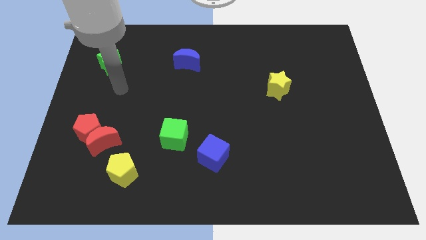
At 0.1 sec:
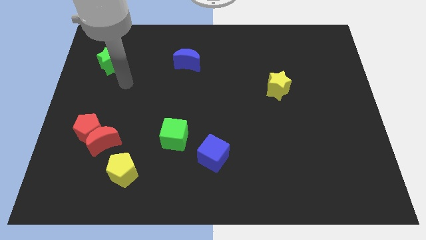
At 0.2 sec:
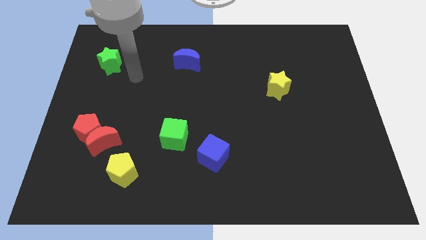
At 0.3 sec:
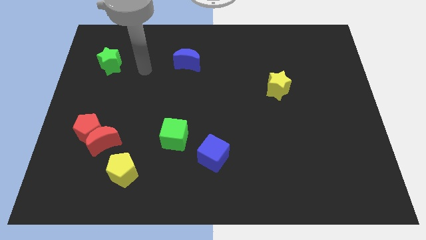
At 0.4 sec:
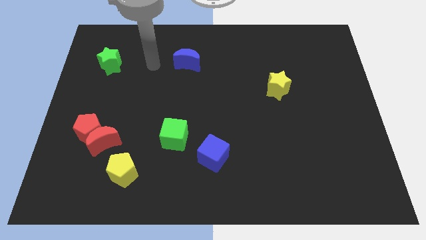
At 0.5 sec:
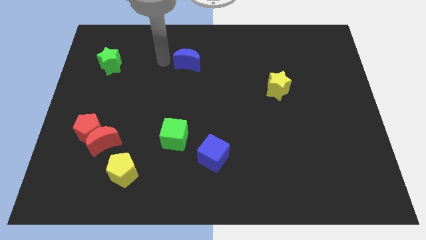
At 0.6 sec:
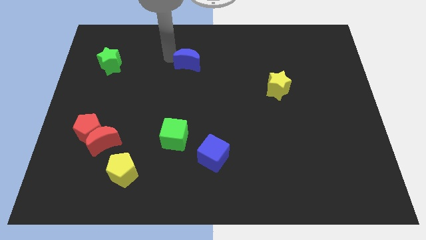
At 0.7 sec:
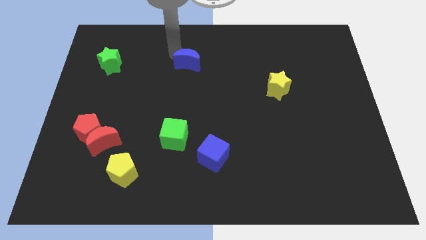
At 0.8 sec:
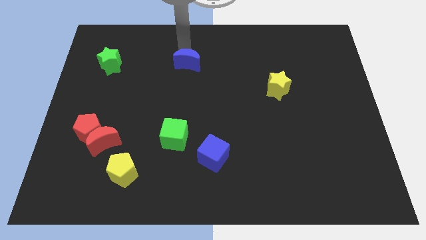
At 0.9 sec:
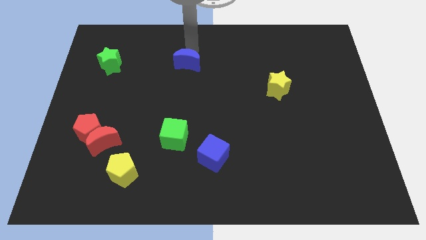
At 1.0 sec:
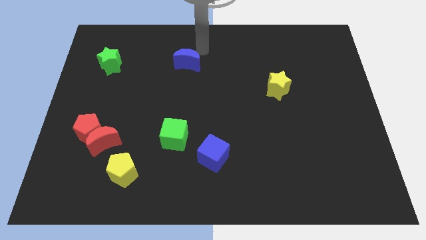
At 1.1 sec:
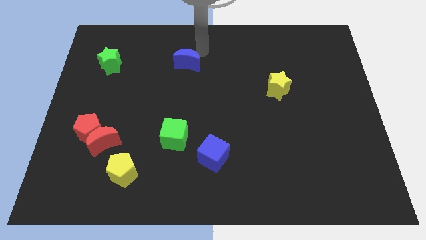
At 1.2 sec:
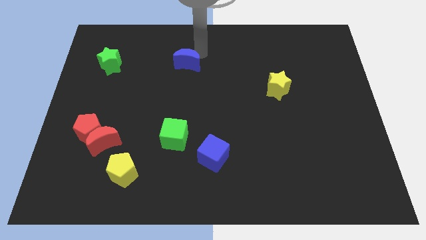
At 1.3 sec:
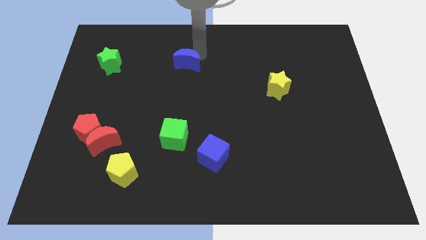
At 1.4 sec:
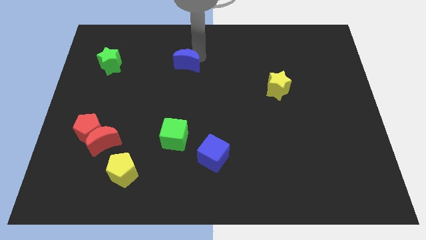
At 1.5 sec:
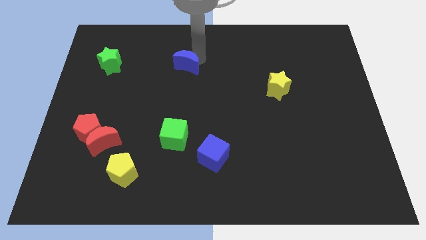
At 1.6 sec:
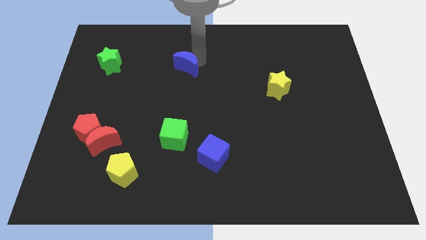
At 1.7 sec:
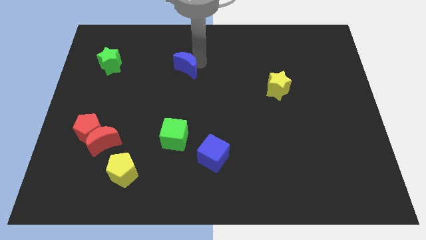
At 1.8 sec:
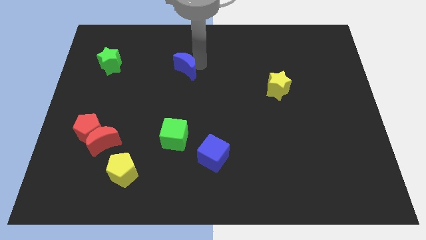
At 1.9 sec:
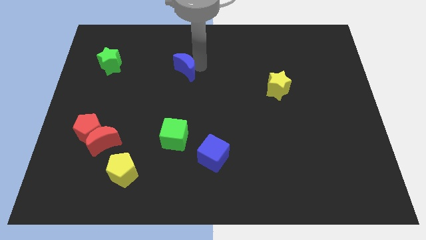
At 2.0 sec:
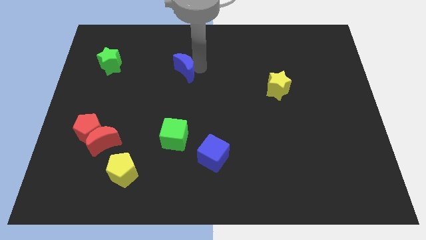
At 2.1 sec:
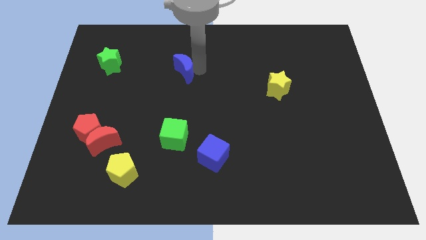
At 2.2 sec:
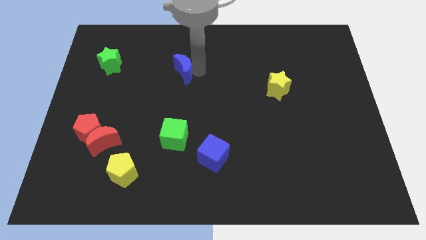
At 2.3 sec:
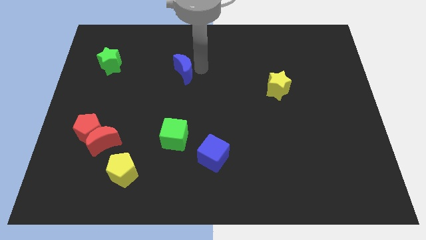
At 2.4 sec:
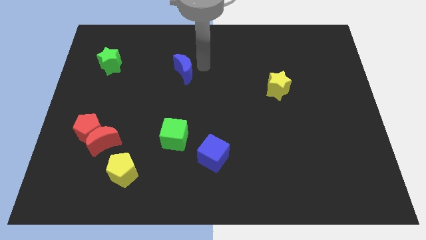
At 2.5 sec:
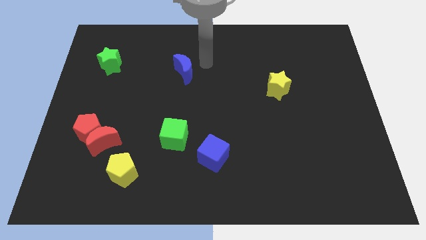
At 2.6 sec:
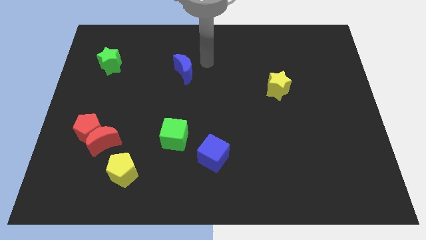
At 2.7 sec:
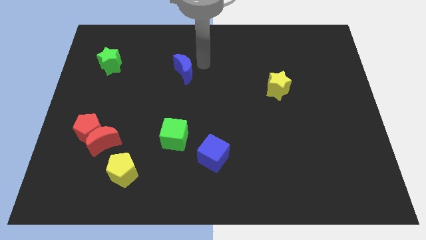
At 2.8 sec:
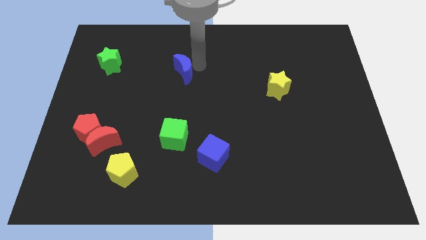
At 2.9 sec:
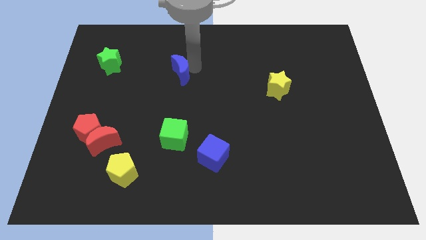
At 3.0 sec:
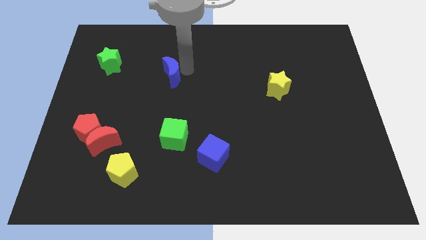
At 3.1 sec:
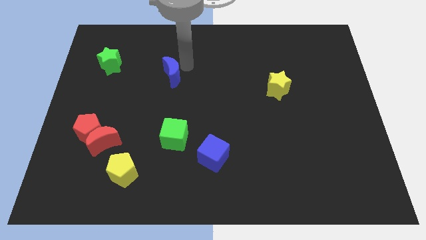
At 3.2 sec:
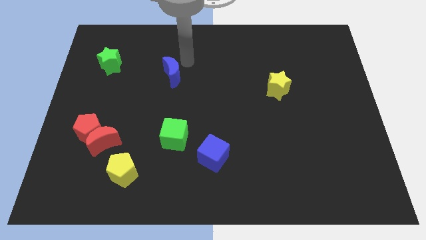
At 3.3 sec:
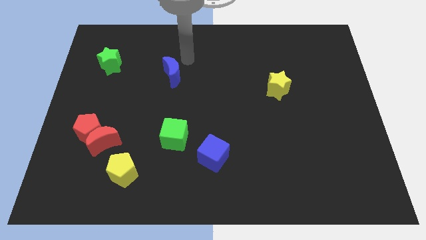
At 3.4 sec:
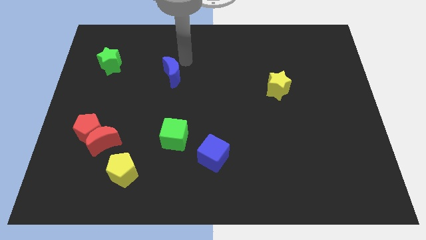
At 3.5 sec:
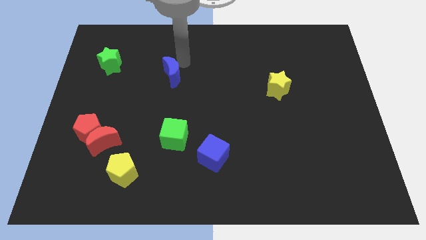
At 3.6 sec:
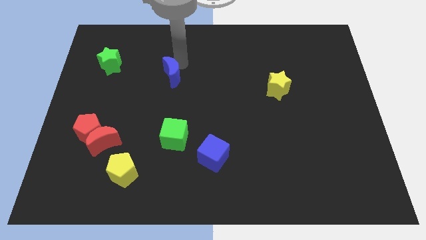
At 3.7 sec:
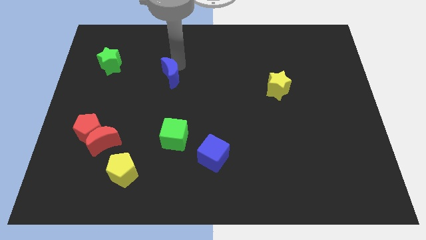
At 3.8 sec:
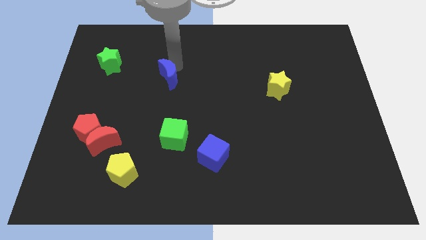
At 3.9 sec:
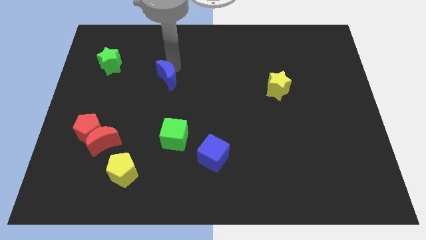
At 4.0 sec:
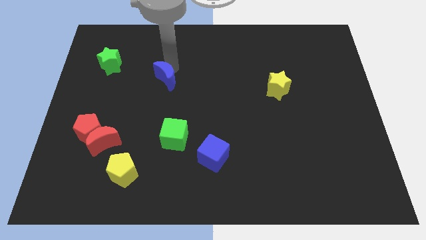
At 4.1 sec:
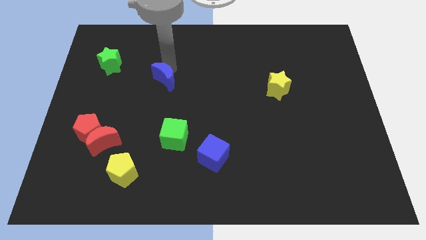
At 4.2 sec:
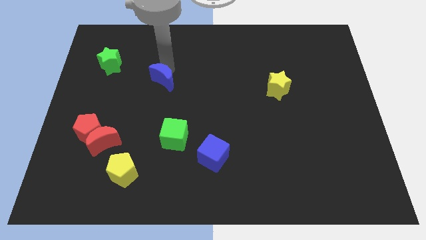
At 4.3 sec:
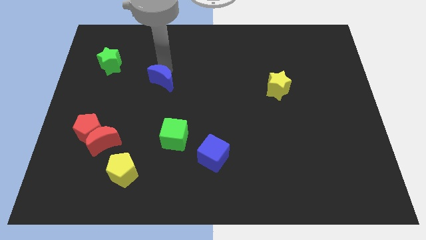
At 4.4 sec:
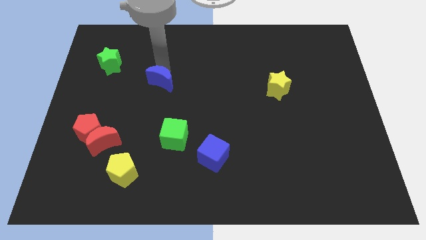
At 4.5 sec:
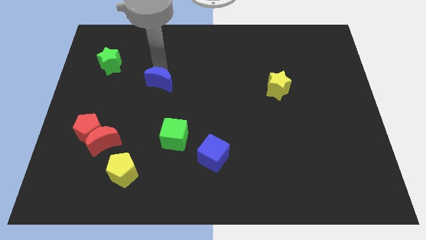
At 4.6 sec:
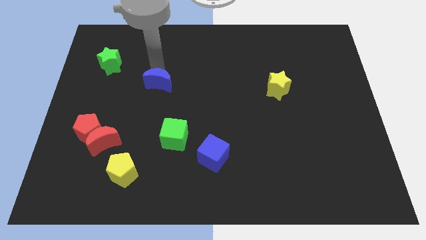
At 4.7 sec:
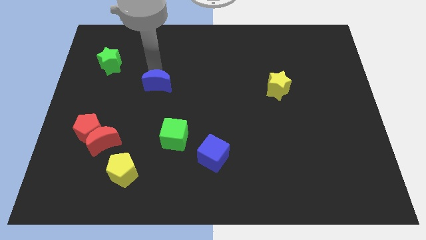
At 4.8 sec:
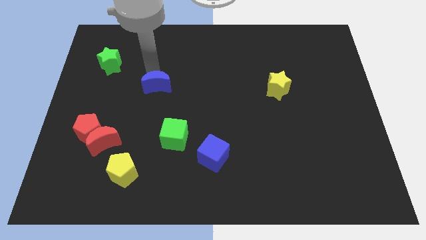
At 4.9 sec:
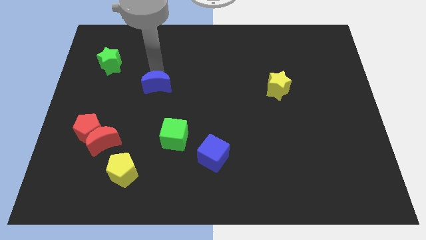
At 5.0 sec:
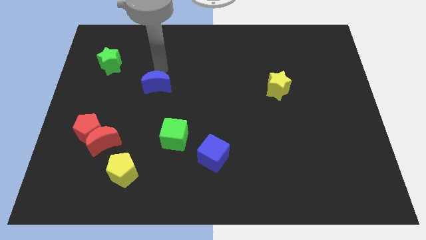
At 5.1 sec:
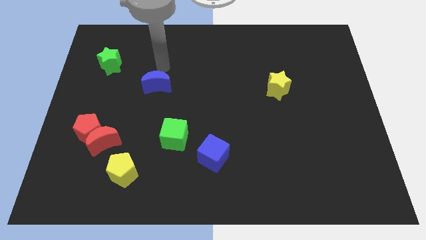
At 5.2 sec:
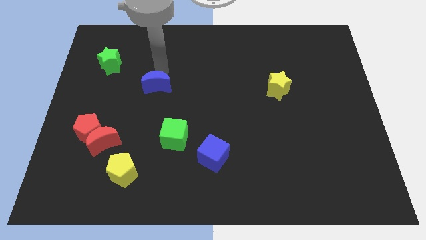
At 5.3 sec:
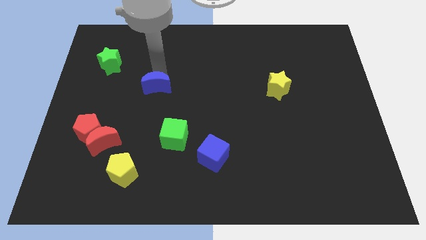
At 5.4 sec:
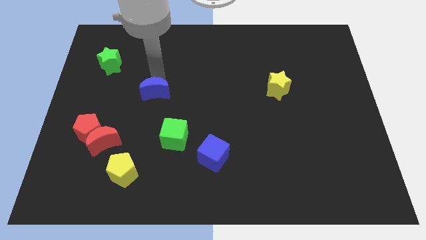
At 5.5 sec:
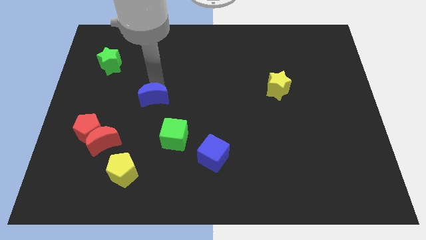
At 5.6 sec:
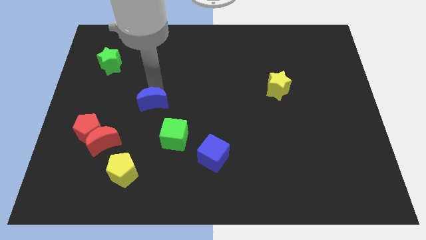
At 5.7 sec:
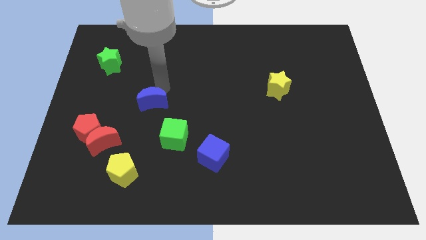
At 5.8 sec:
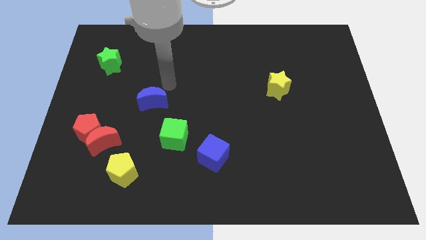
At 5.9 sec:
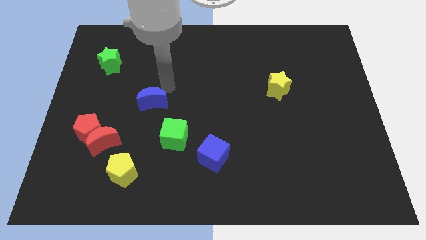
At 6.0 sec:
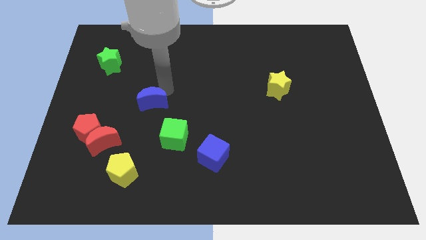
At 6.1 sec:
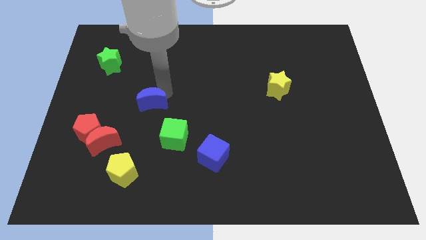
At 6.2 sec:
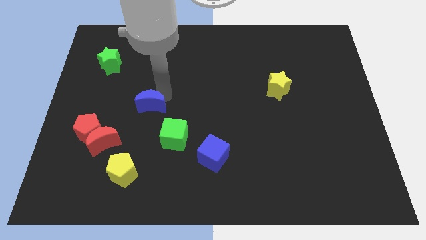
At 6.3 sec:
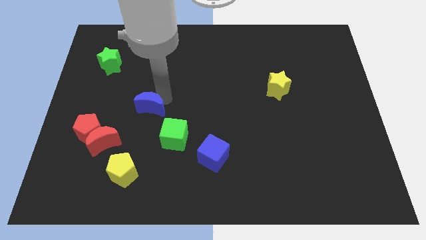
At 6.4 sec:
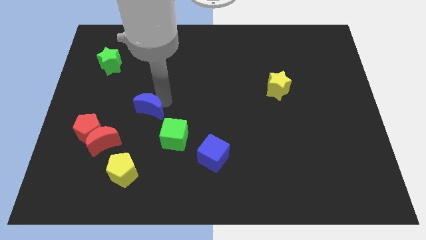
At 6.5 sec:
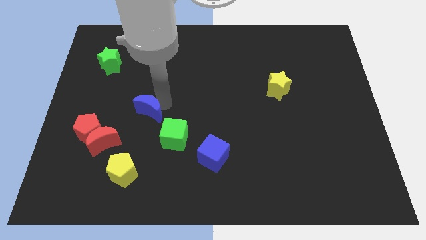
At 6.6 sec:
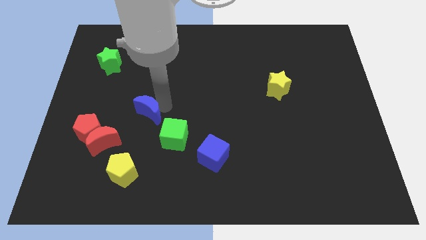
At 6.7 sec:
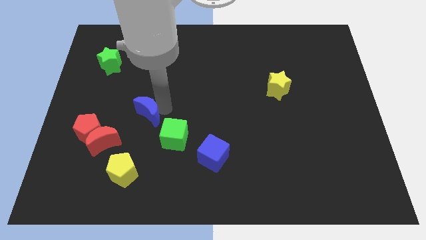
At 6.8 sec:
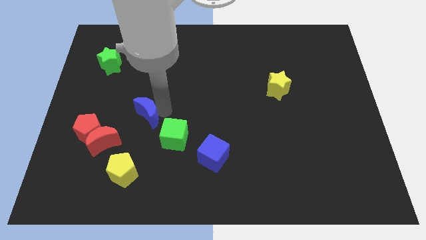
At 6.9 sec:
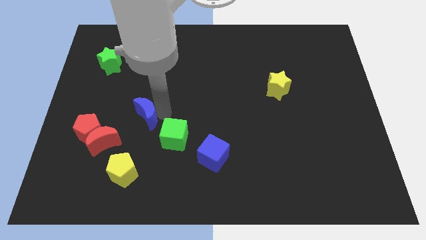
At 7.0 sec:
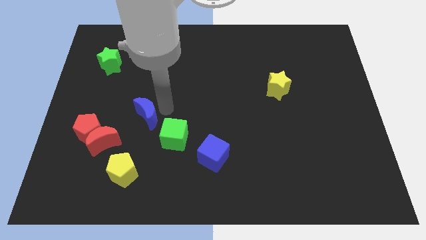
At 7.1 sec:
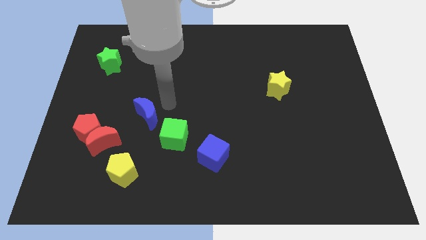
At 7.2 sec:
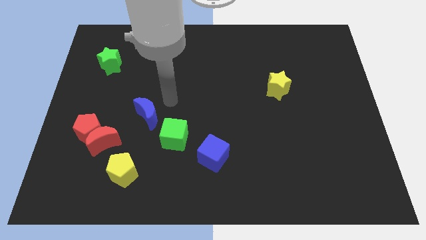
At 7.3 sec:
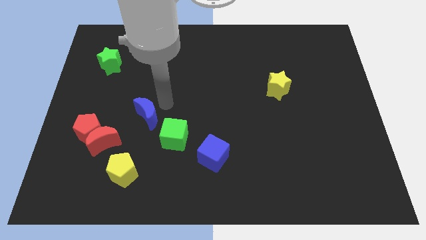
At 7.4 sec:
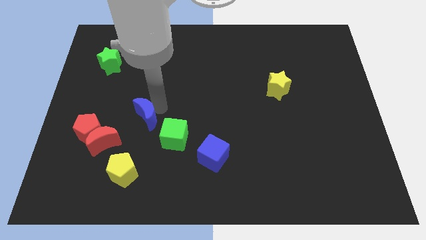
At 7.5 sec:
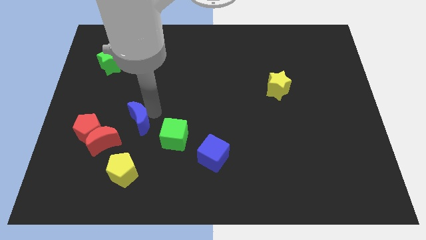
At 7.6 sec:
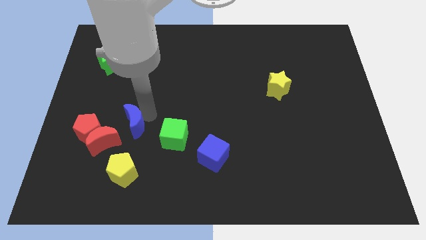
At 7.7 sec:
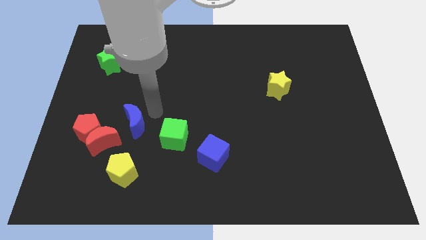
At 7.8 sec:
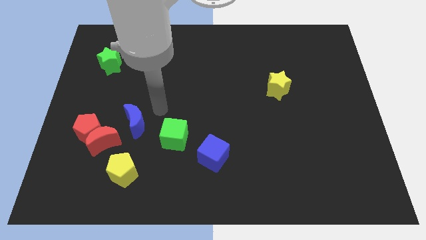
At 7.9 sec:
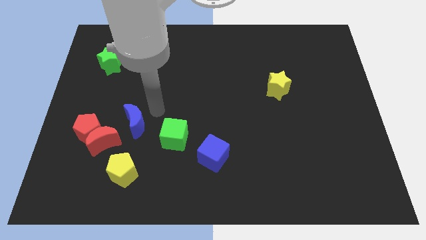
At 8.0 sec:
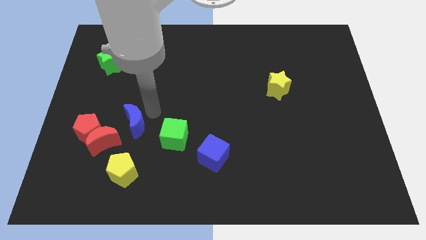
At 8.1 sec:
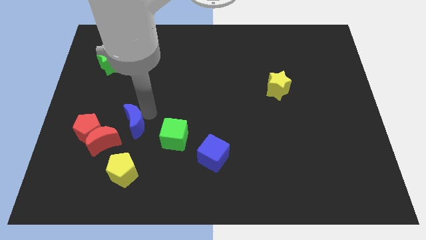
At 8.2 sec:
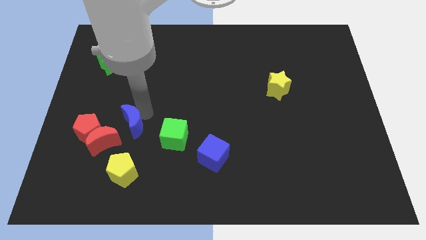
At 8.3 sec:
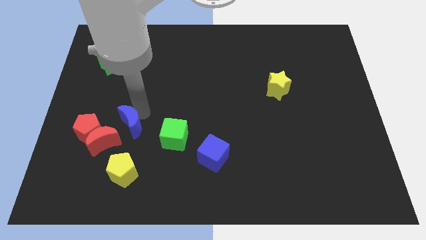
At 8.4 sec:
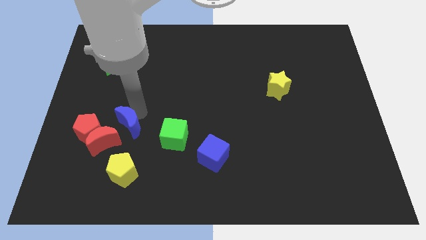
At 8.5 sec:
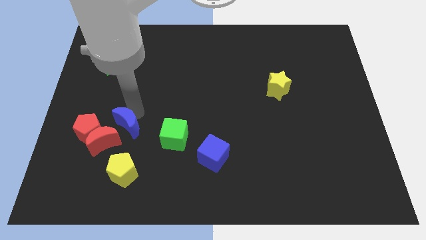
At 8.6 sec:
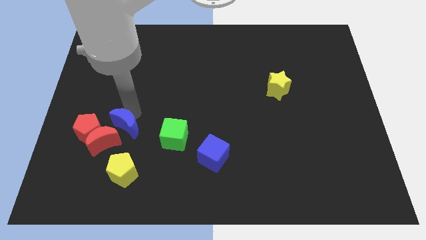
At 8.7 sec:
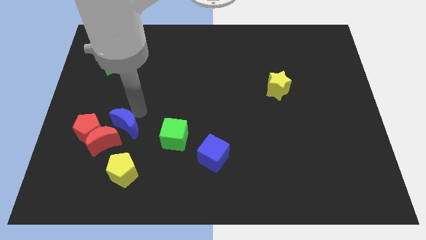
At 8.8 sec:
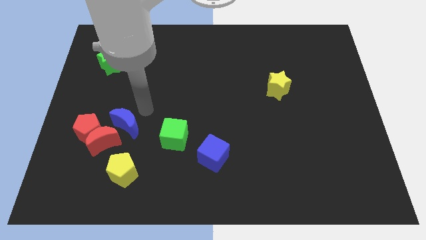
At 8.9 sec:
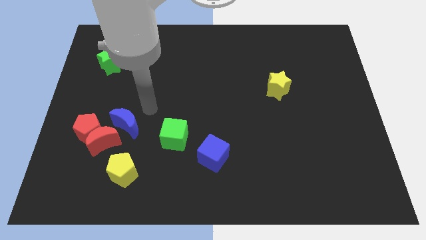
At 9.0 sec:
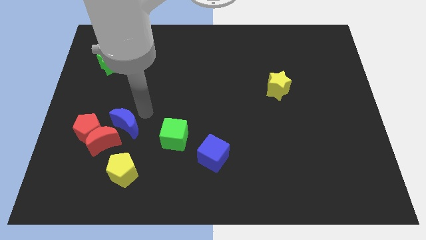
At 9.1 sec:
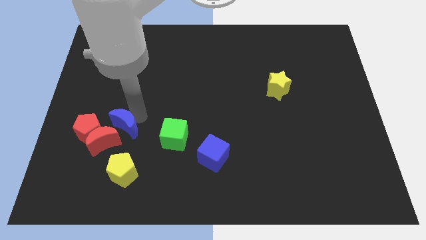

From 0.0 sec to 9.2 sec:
put the blue moon next to the red moon
